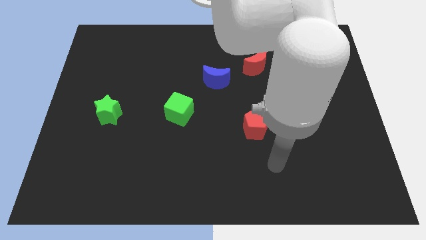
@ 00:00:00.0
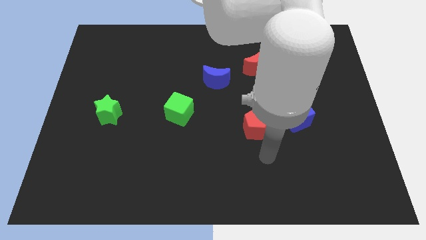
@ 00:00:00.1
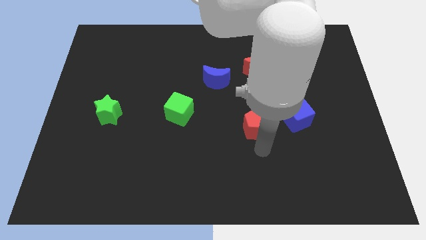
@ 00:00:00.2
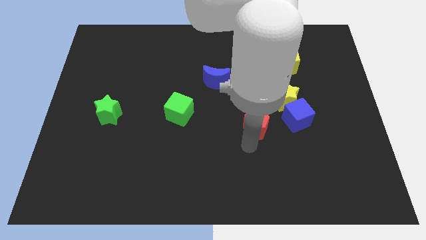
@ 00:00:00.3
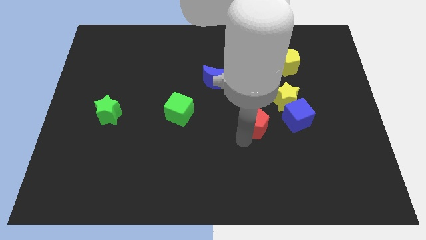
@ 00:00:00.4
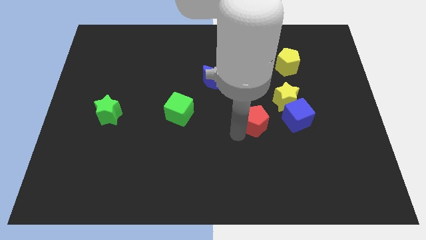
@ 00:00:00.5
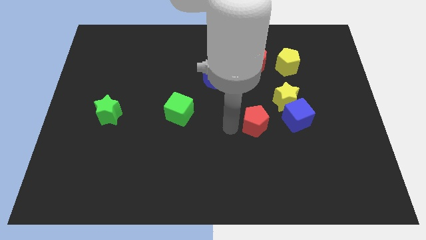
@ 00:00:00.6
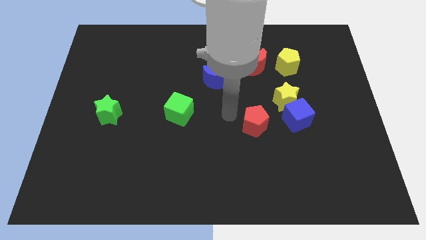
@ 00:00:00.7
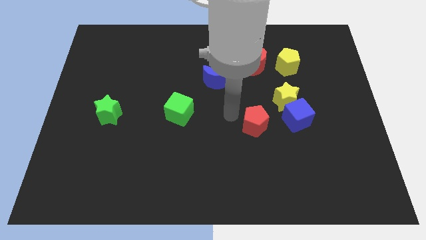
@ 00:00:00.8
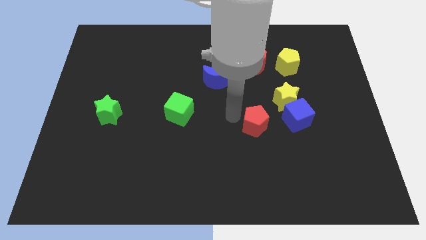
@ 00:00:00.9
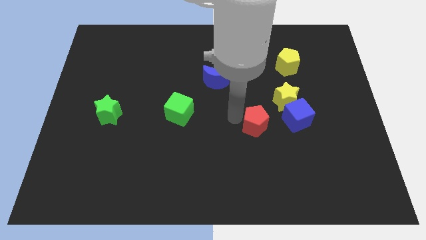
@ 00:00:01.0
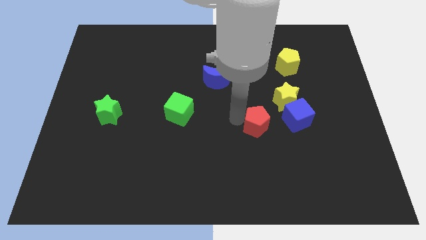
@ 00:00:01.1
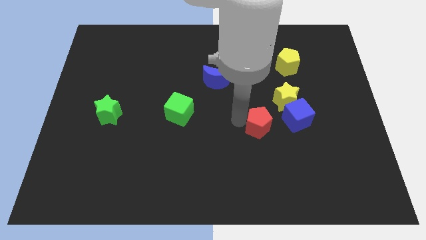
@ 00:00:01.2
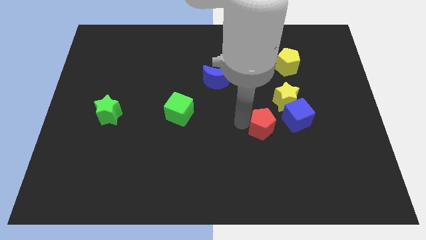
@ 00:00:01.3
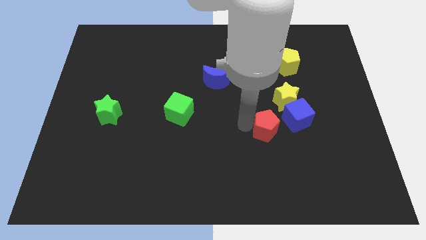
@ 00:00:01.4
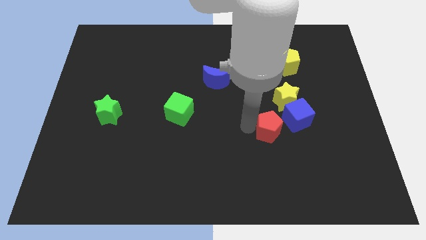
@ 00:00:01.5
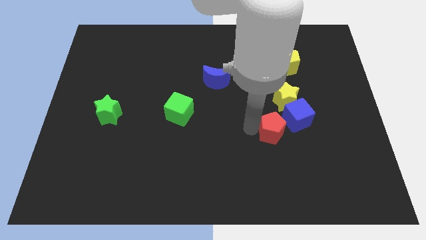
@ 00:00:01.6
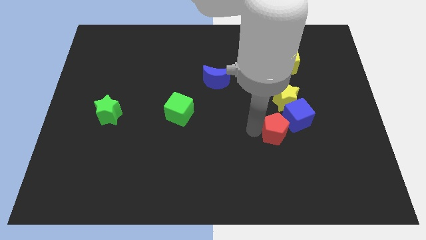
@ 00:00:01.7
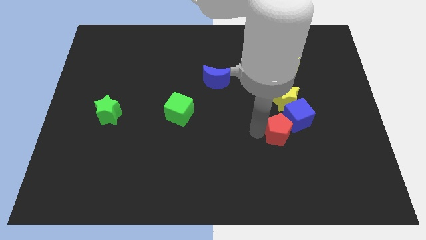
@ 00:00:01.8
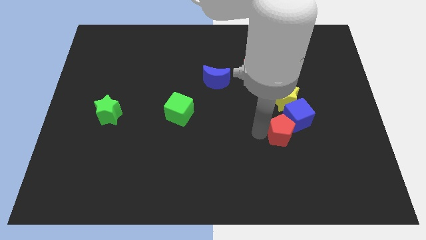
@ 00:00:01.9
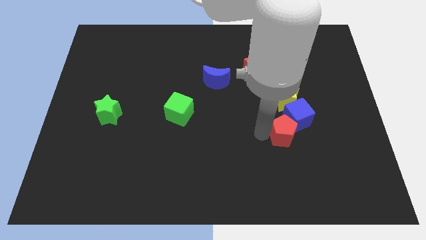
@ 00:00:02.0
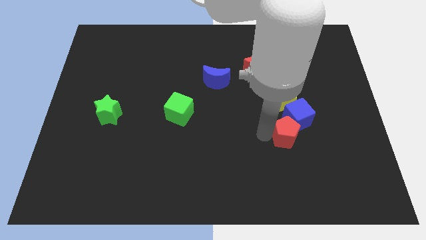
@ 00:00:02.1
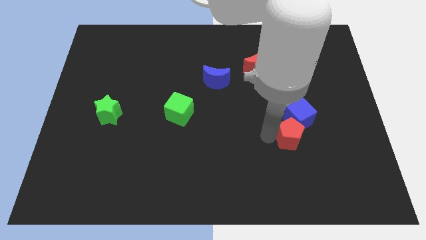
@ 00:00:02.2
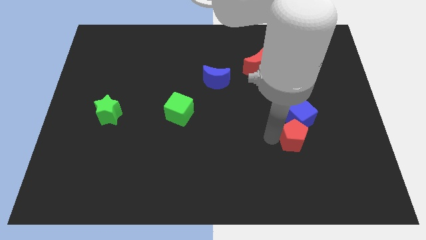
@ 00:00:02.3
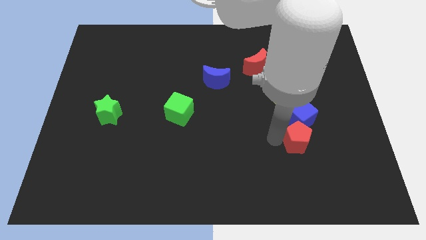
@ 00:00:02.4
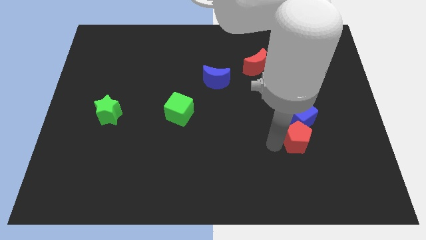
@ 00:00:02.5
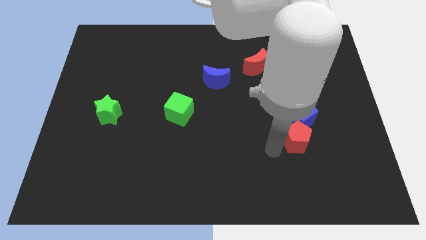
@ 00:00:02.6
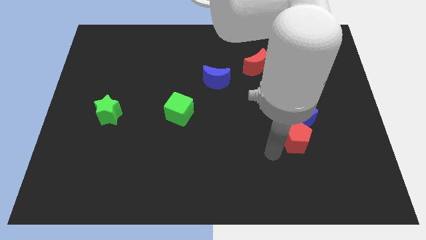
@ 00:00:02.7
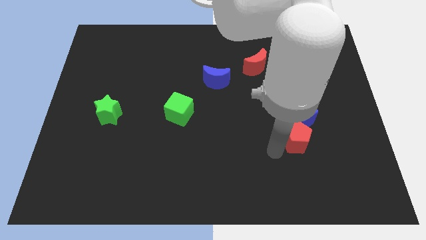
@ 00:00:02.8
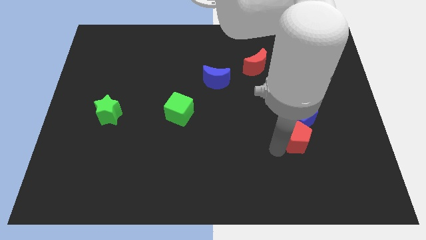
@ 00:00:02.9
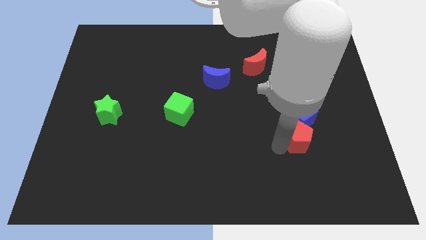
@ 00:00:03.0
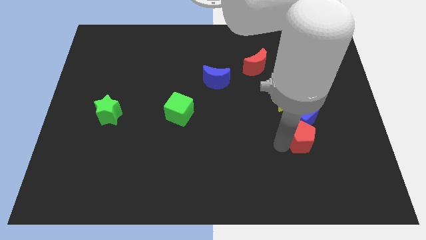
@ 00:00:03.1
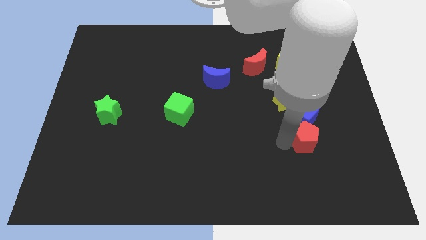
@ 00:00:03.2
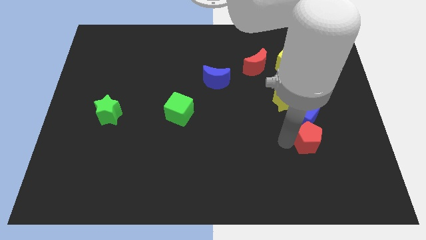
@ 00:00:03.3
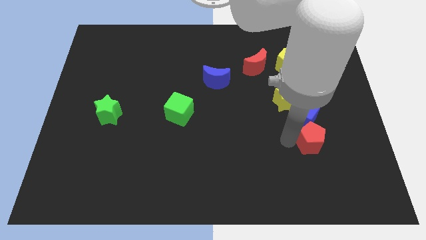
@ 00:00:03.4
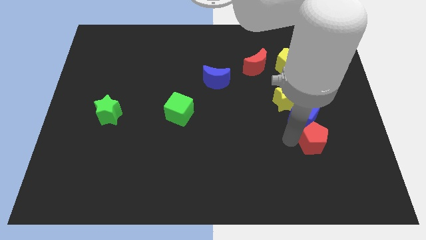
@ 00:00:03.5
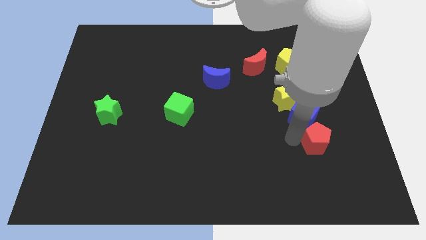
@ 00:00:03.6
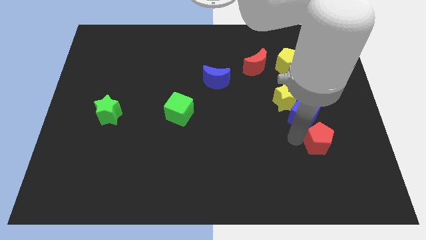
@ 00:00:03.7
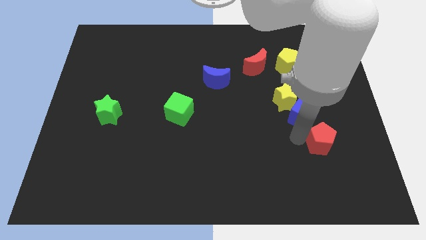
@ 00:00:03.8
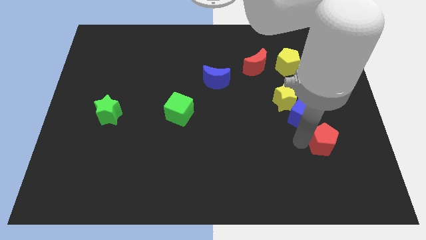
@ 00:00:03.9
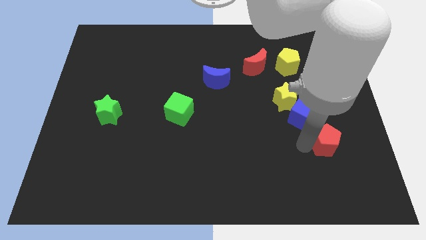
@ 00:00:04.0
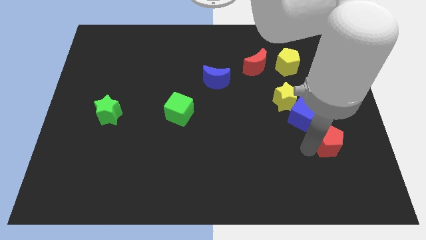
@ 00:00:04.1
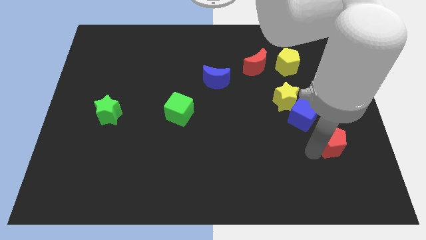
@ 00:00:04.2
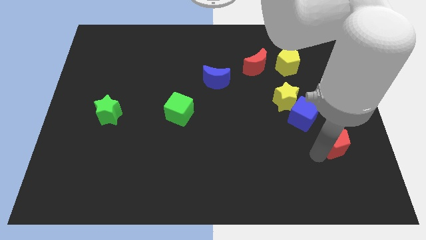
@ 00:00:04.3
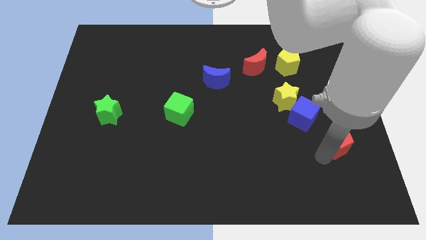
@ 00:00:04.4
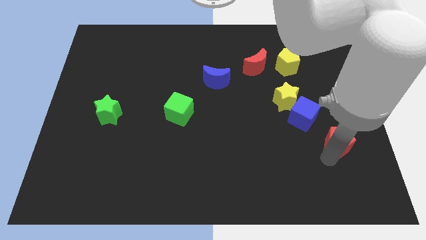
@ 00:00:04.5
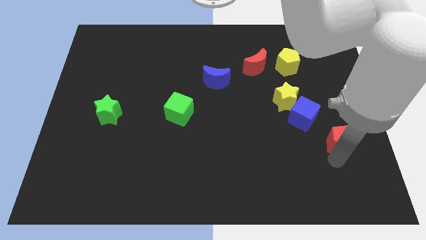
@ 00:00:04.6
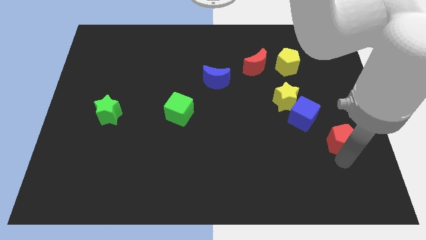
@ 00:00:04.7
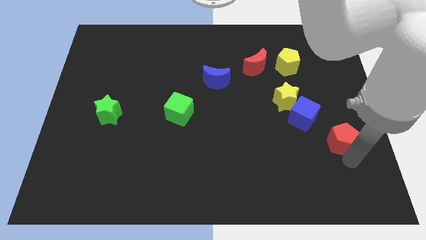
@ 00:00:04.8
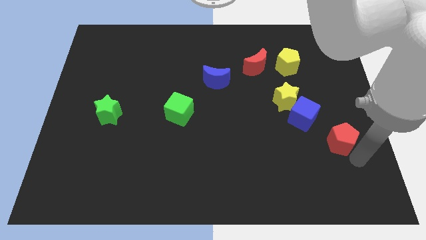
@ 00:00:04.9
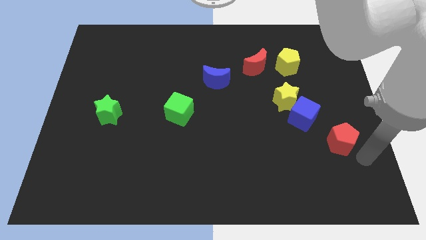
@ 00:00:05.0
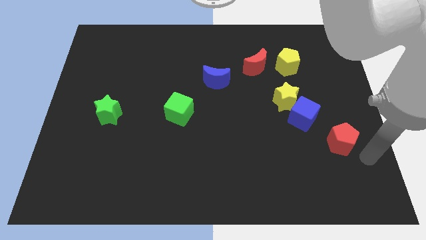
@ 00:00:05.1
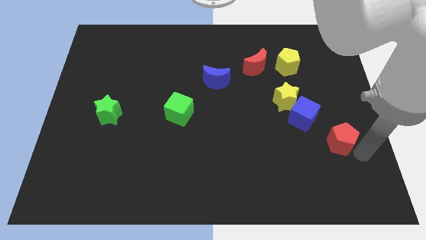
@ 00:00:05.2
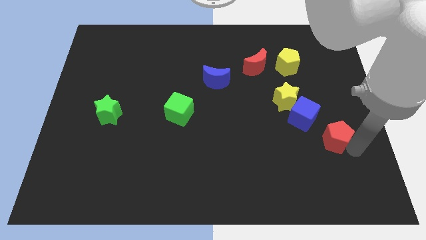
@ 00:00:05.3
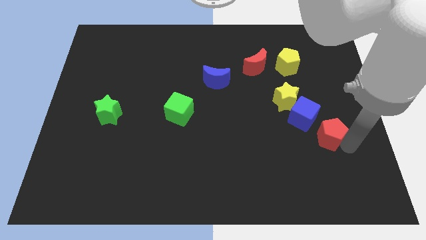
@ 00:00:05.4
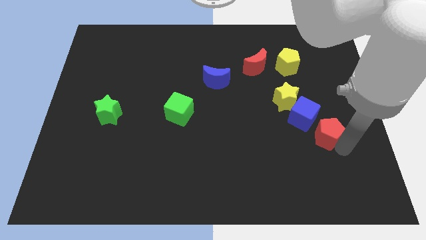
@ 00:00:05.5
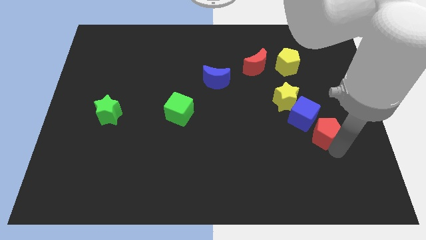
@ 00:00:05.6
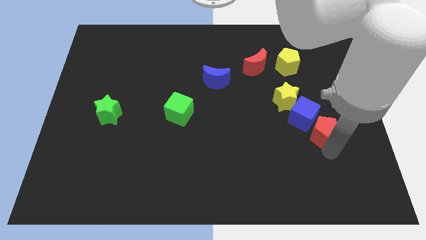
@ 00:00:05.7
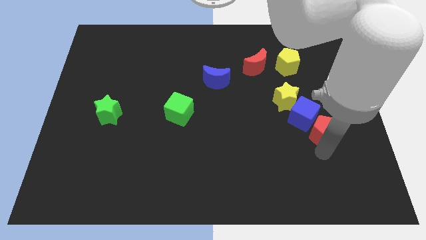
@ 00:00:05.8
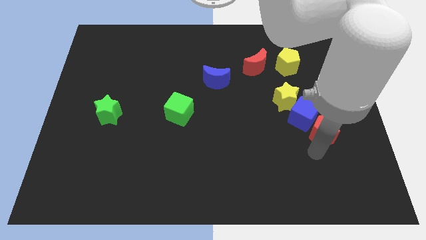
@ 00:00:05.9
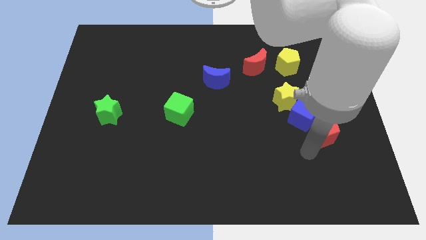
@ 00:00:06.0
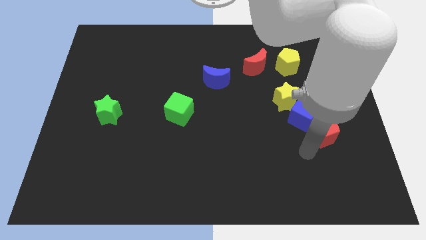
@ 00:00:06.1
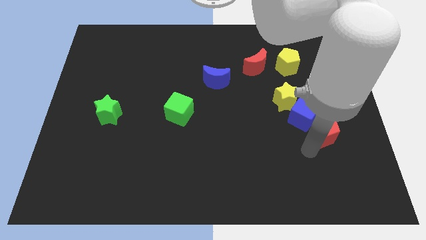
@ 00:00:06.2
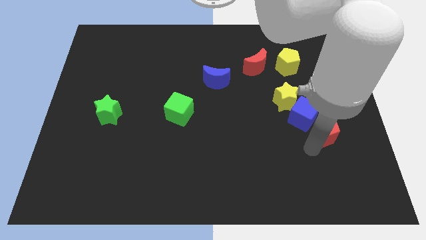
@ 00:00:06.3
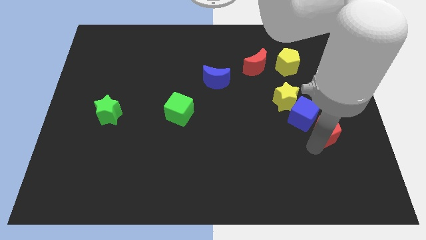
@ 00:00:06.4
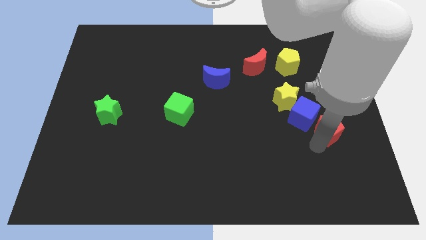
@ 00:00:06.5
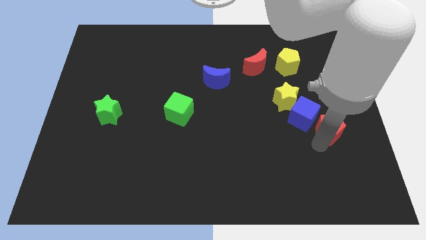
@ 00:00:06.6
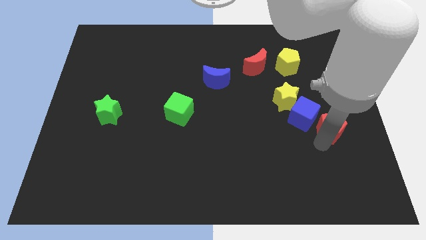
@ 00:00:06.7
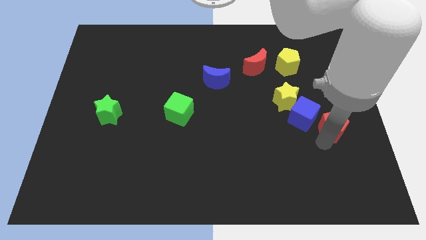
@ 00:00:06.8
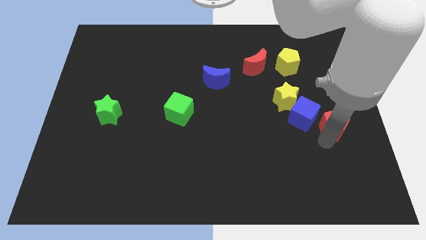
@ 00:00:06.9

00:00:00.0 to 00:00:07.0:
push the red pentagon to the right side
